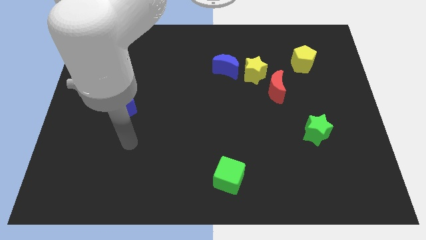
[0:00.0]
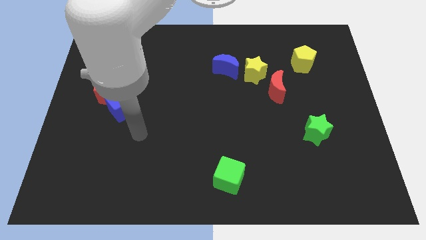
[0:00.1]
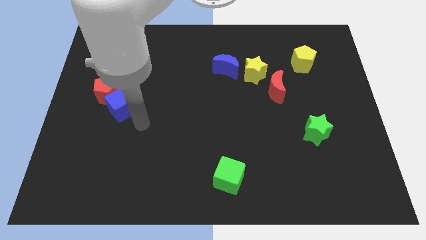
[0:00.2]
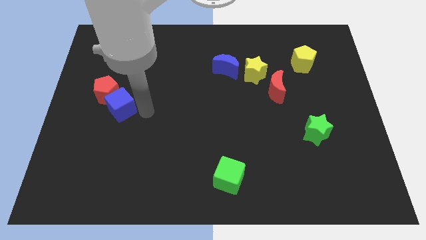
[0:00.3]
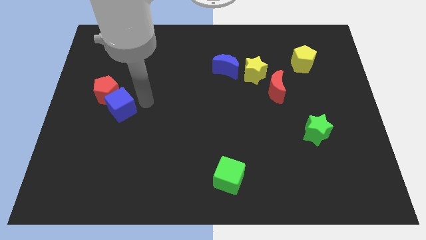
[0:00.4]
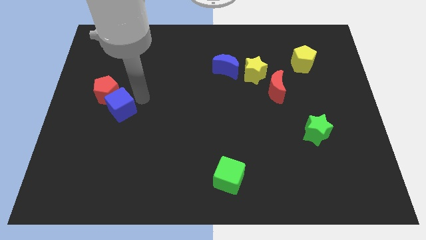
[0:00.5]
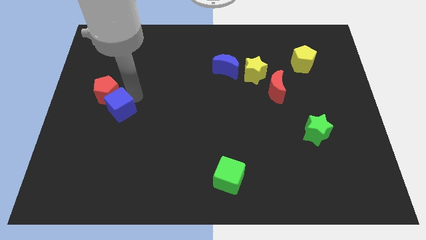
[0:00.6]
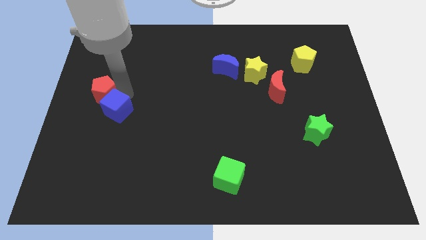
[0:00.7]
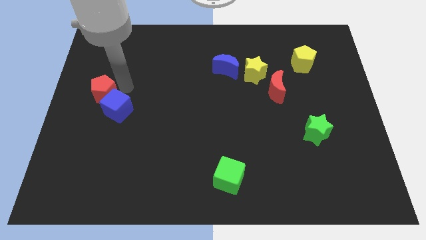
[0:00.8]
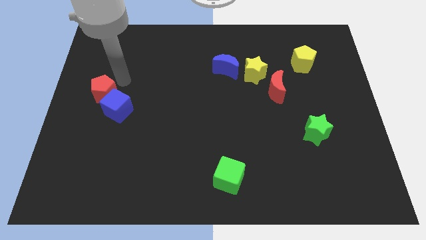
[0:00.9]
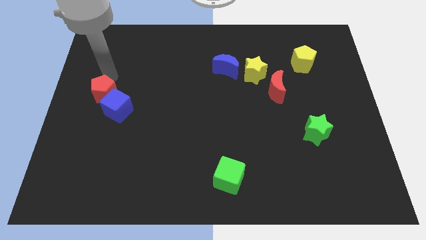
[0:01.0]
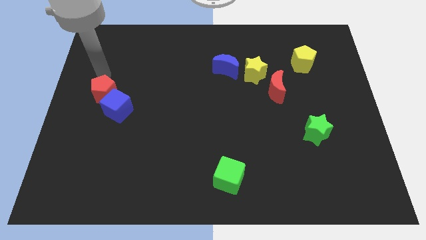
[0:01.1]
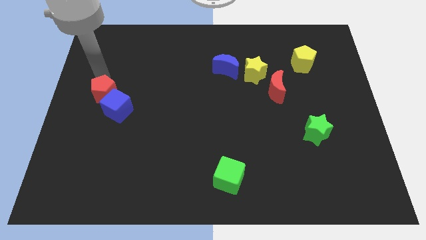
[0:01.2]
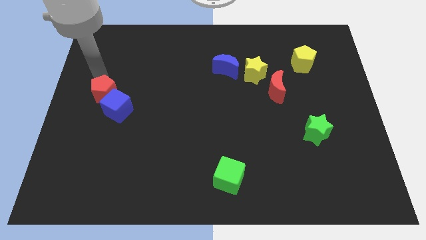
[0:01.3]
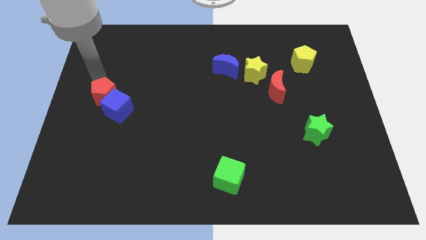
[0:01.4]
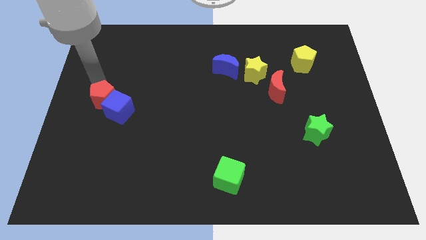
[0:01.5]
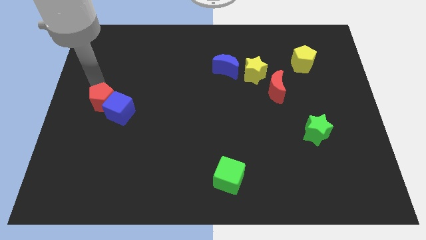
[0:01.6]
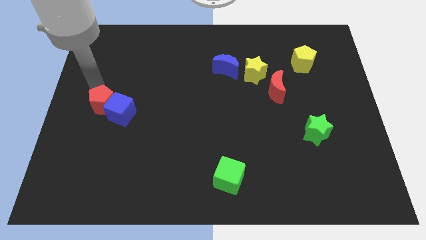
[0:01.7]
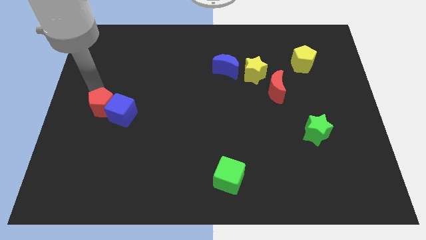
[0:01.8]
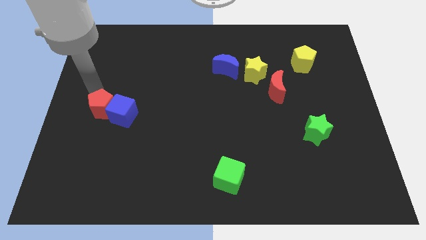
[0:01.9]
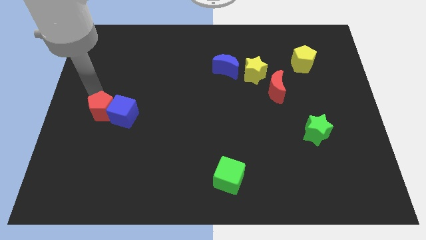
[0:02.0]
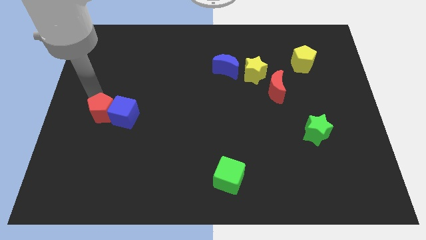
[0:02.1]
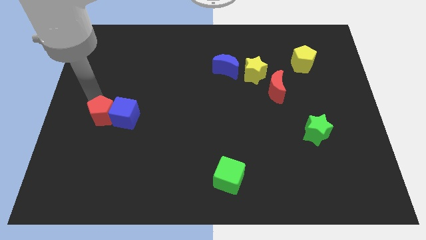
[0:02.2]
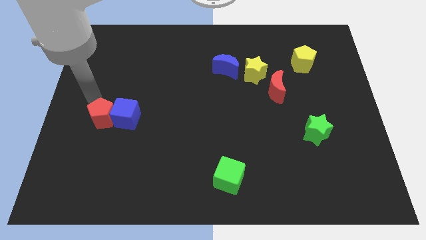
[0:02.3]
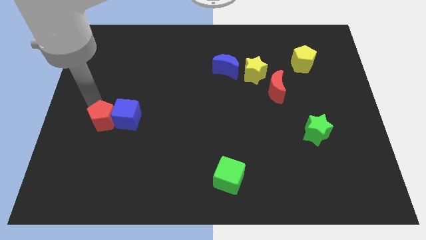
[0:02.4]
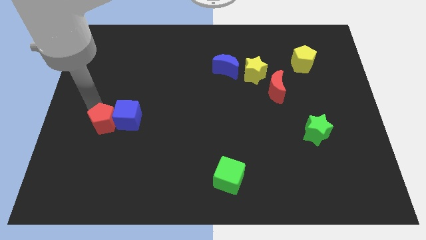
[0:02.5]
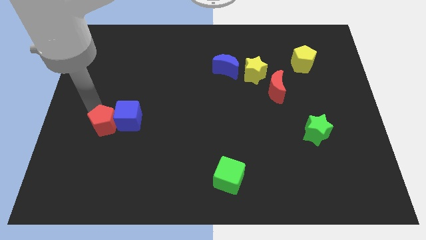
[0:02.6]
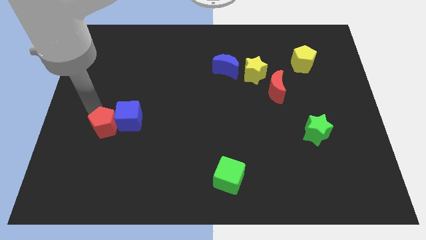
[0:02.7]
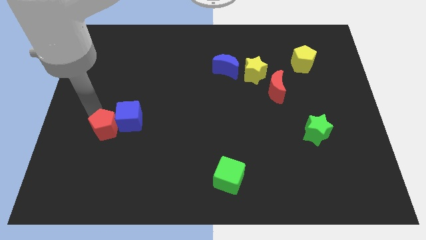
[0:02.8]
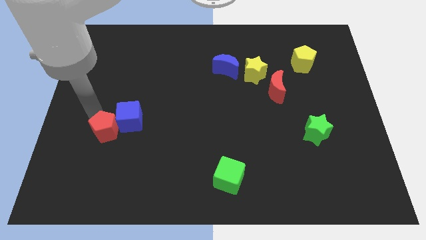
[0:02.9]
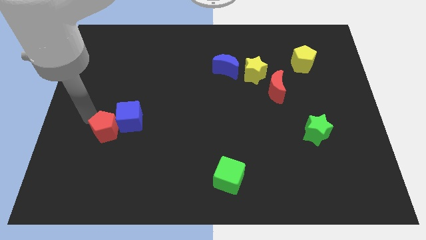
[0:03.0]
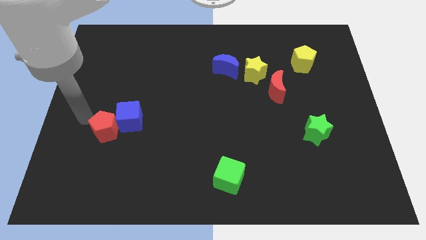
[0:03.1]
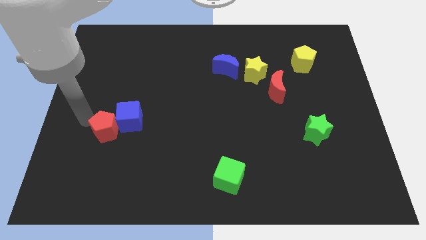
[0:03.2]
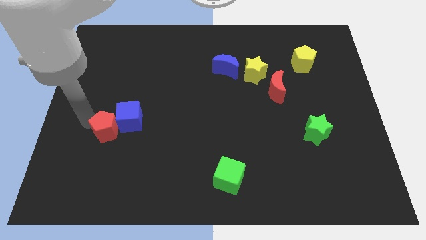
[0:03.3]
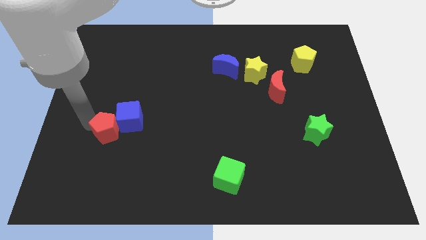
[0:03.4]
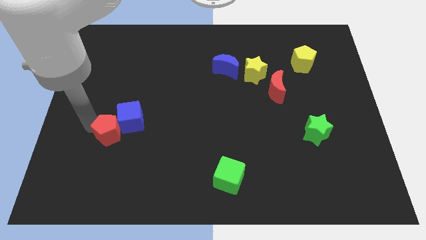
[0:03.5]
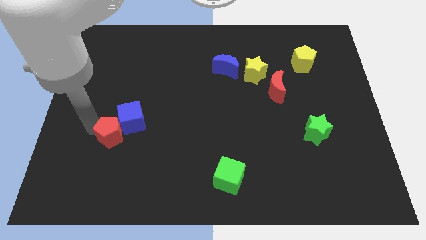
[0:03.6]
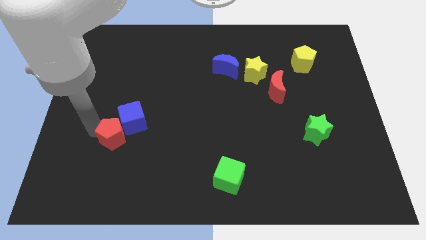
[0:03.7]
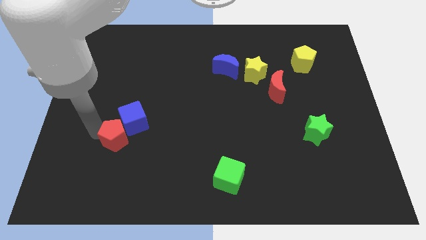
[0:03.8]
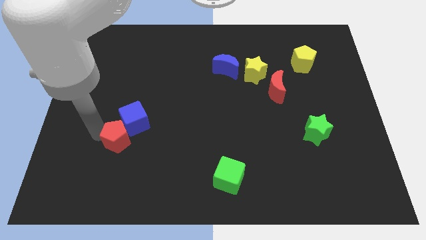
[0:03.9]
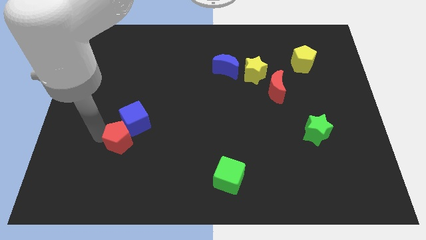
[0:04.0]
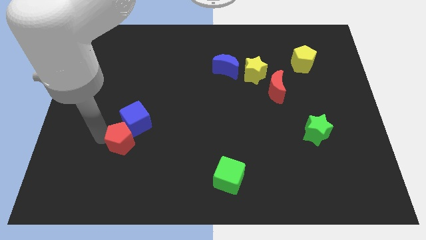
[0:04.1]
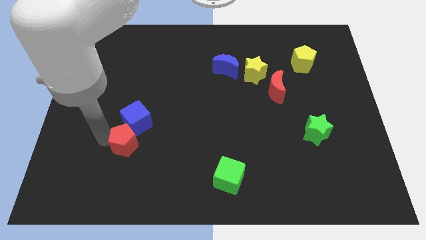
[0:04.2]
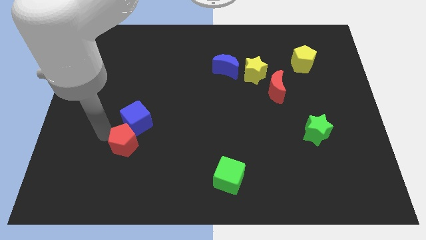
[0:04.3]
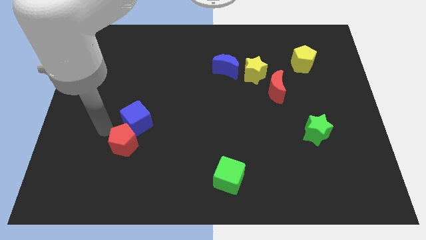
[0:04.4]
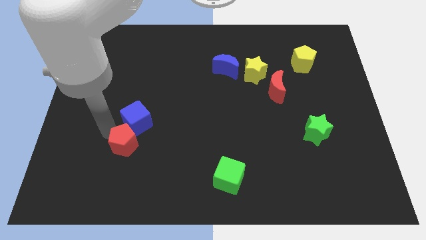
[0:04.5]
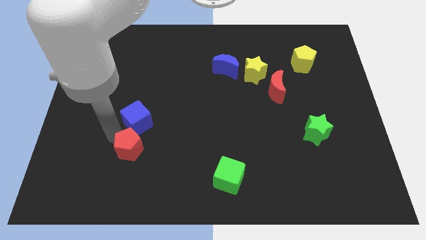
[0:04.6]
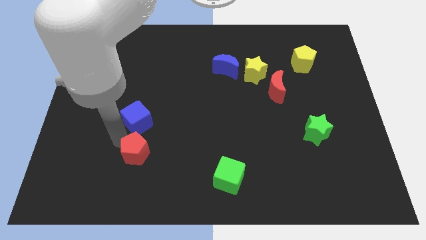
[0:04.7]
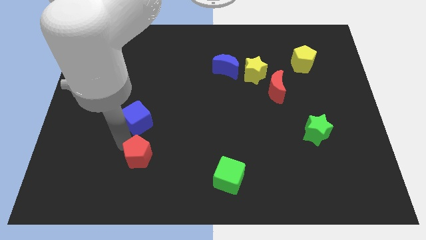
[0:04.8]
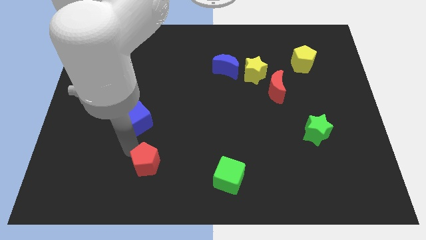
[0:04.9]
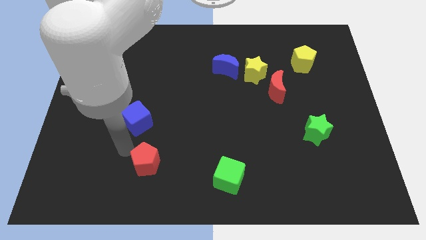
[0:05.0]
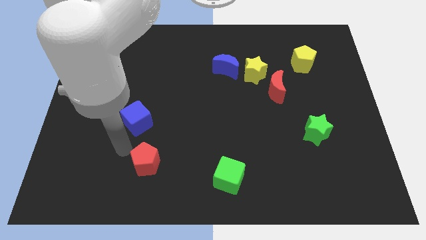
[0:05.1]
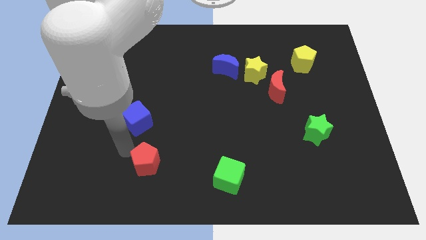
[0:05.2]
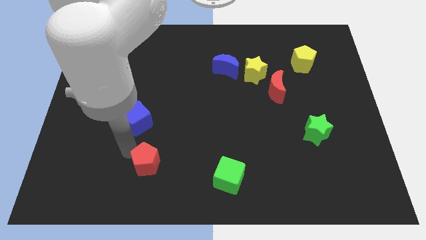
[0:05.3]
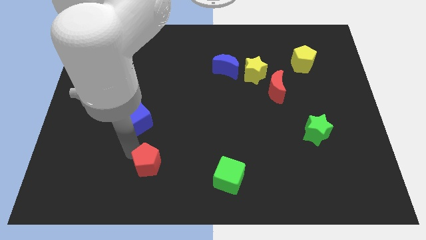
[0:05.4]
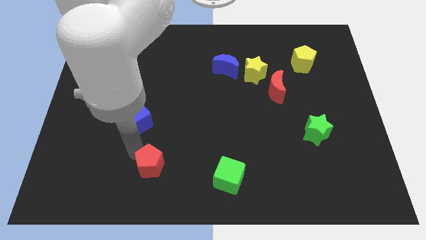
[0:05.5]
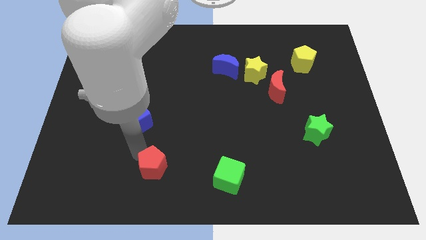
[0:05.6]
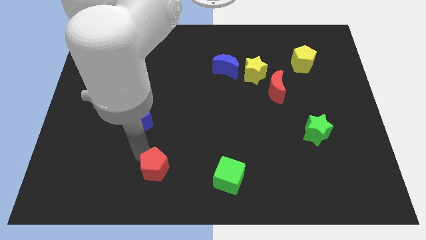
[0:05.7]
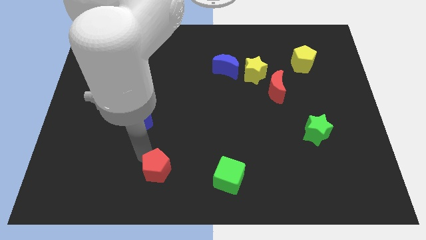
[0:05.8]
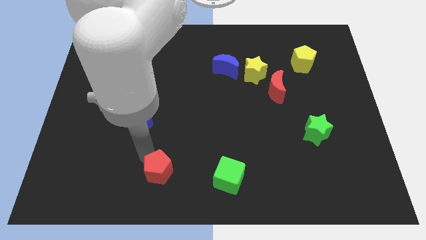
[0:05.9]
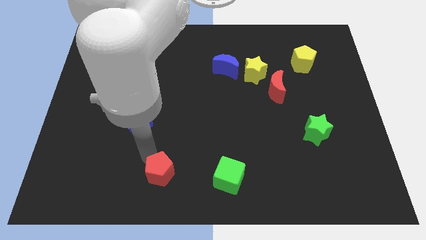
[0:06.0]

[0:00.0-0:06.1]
slide the red pentagon to the bottom

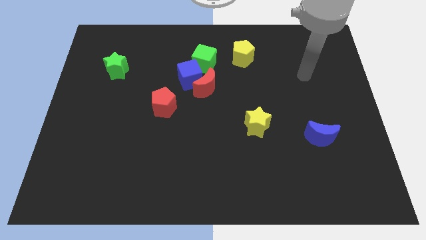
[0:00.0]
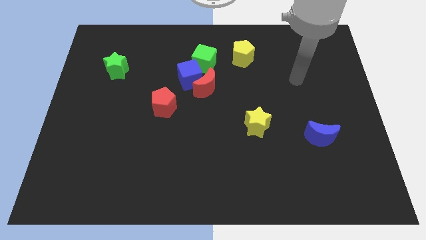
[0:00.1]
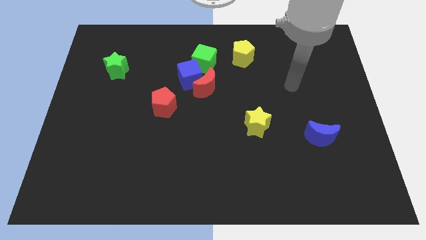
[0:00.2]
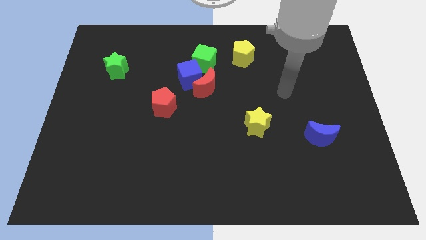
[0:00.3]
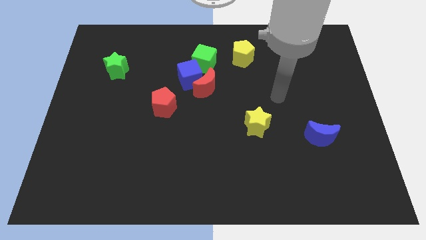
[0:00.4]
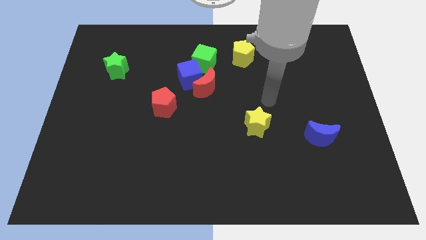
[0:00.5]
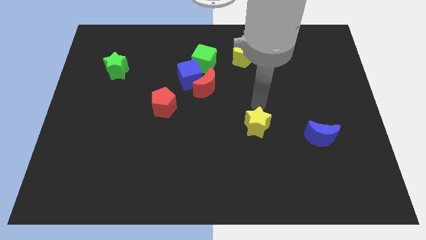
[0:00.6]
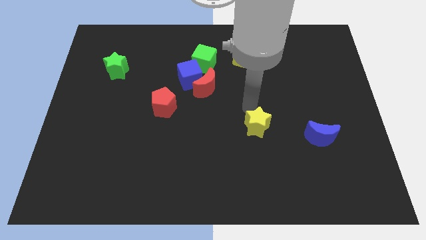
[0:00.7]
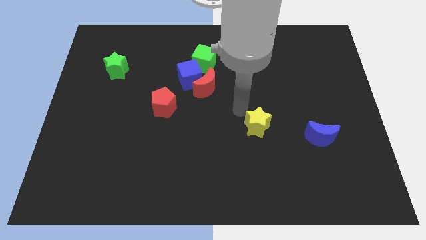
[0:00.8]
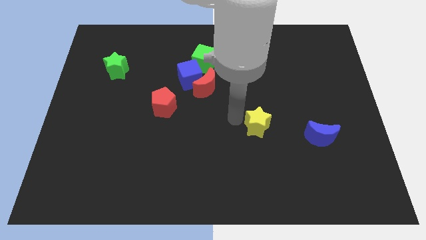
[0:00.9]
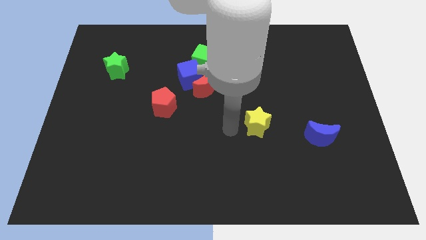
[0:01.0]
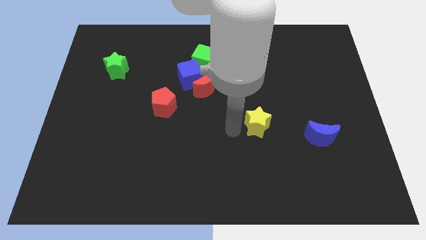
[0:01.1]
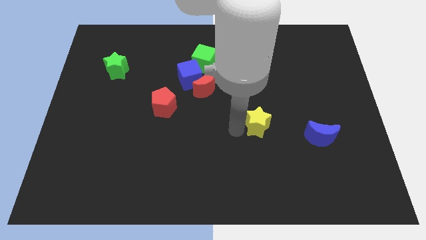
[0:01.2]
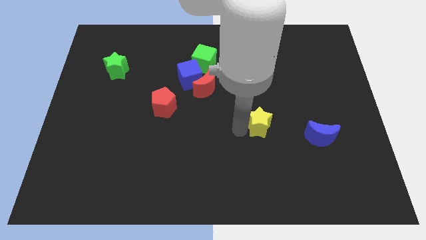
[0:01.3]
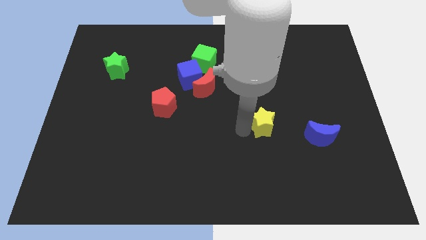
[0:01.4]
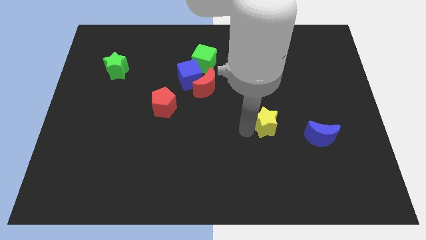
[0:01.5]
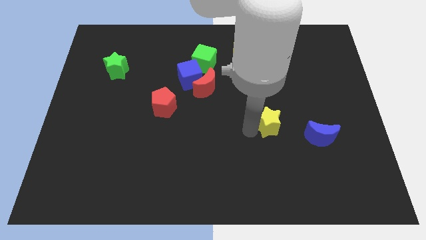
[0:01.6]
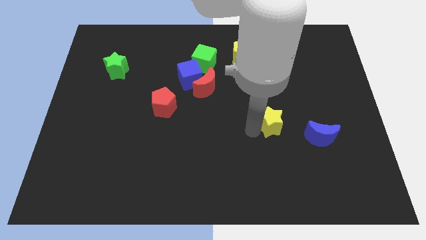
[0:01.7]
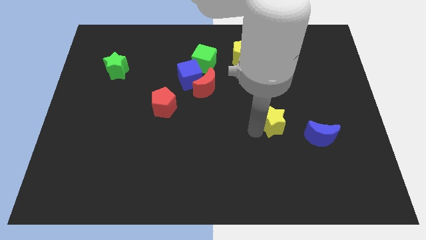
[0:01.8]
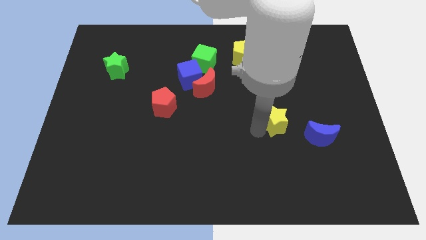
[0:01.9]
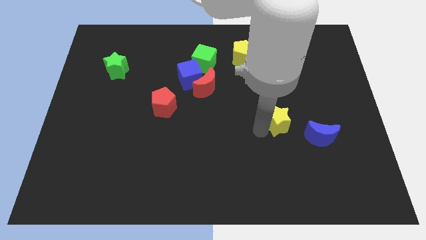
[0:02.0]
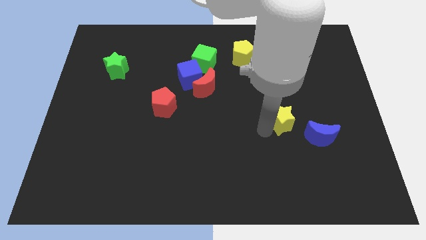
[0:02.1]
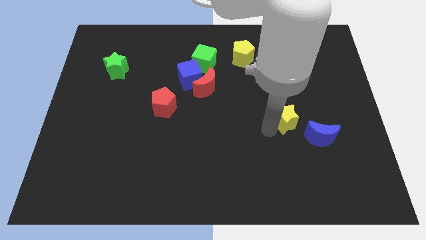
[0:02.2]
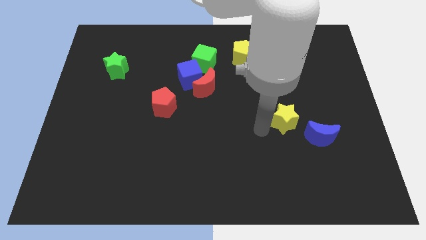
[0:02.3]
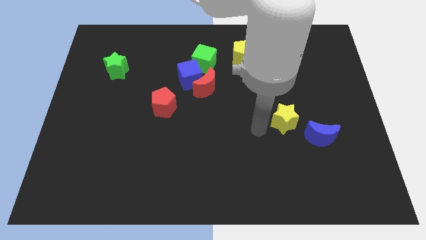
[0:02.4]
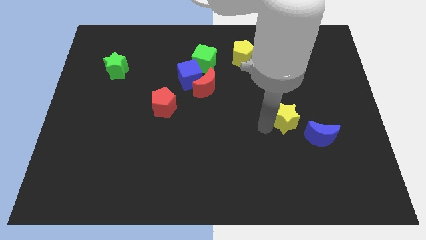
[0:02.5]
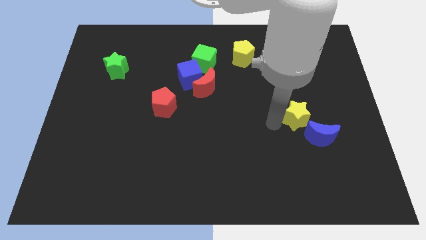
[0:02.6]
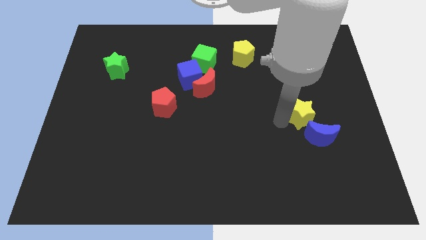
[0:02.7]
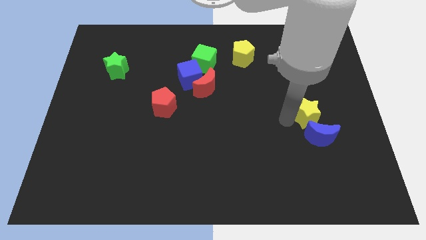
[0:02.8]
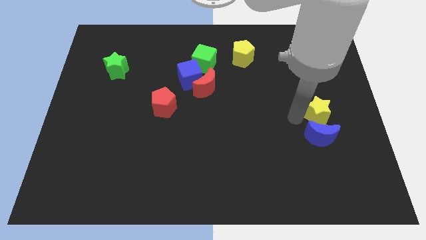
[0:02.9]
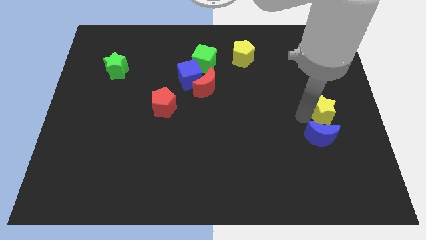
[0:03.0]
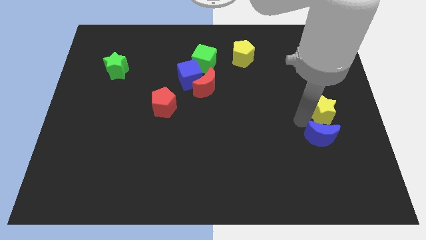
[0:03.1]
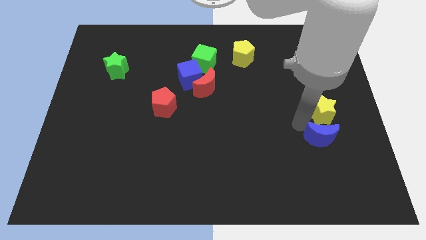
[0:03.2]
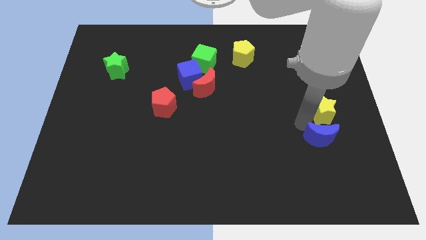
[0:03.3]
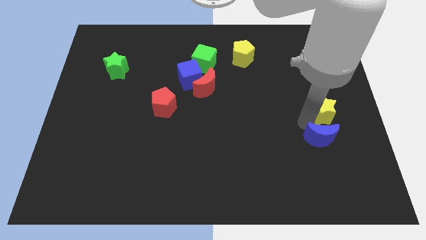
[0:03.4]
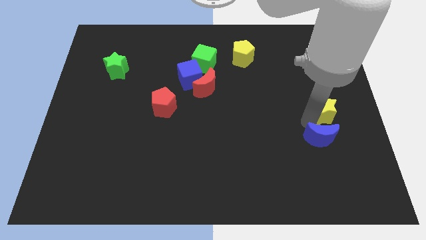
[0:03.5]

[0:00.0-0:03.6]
push the yellow star to the right side
